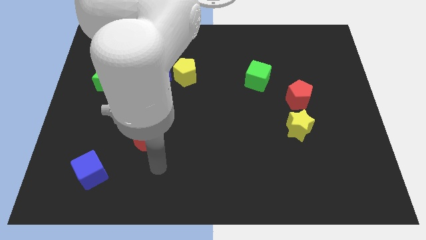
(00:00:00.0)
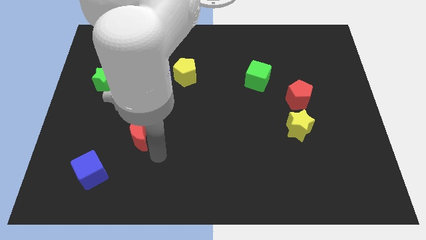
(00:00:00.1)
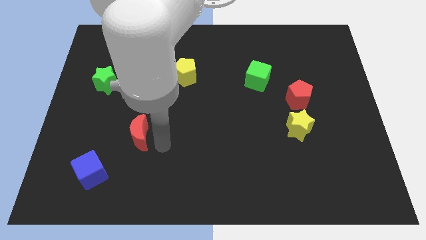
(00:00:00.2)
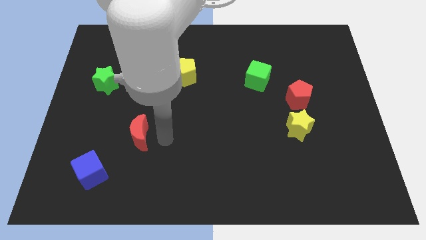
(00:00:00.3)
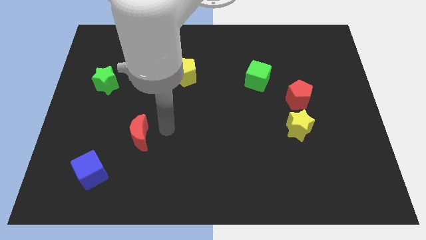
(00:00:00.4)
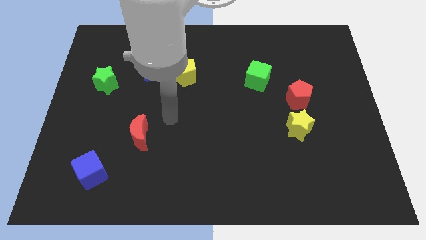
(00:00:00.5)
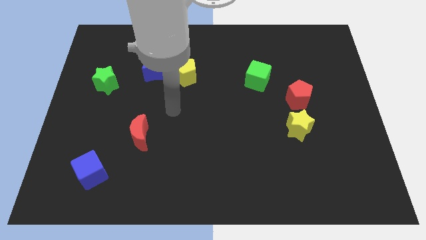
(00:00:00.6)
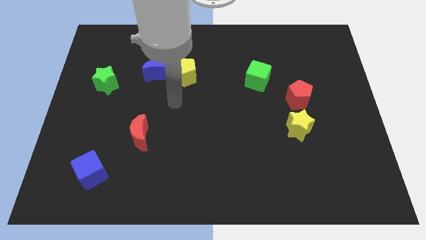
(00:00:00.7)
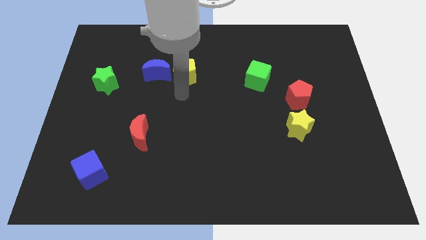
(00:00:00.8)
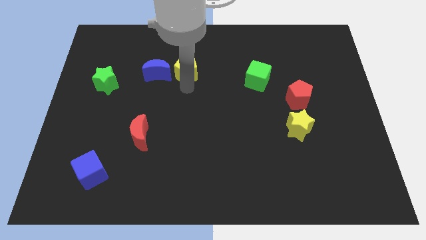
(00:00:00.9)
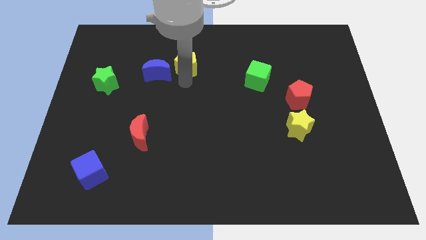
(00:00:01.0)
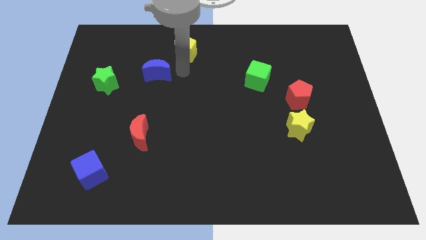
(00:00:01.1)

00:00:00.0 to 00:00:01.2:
move the blue moon away from the yellow pentagon

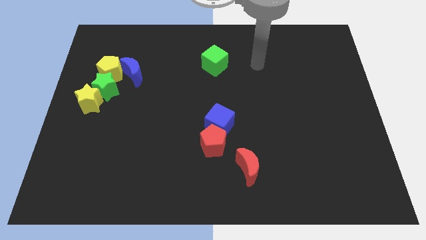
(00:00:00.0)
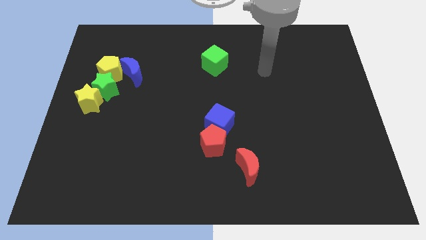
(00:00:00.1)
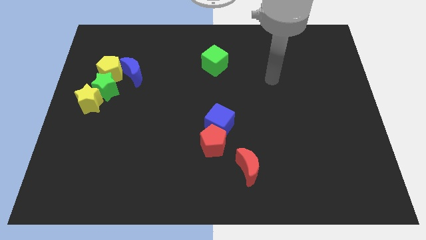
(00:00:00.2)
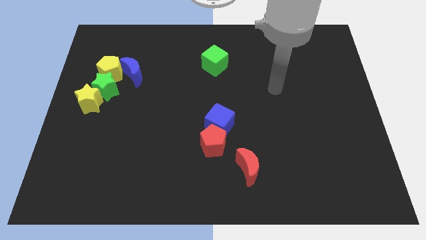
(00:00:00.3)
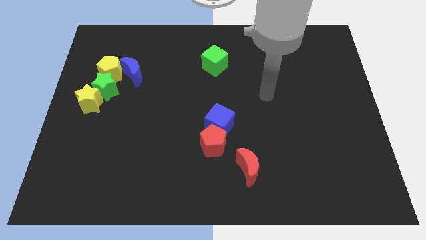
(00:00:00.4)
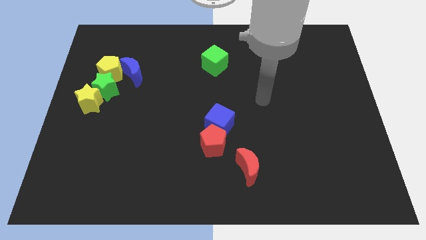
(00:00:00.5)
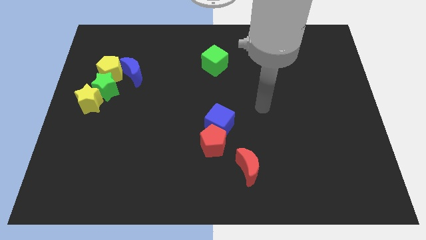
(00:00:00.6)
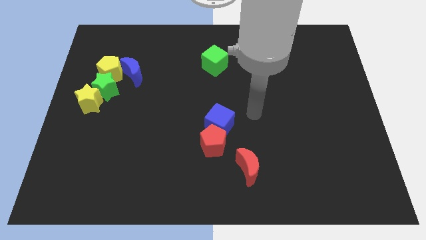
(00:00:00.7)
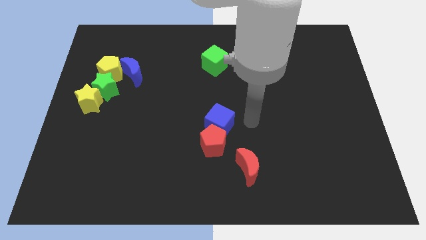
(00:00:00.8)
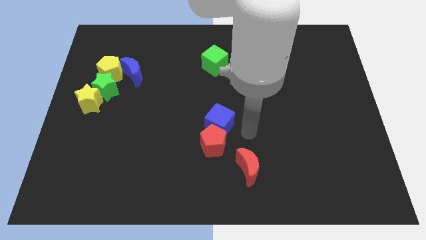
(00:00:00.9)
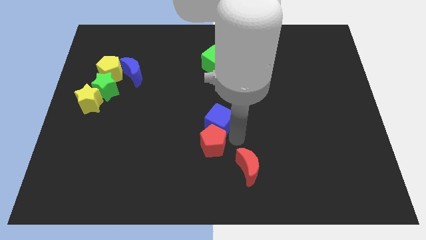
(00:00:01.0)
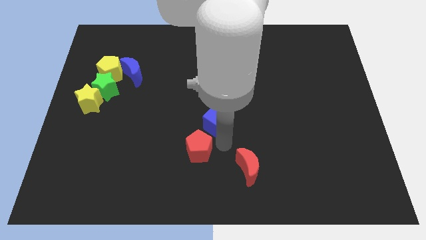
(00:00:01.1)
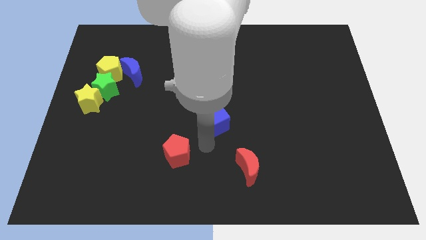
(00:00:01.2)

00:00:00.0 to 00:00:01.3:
separate the blue cube from the red pentagon

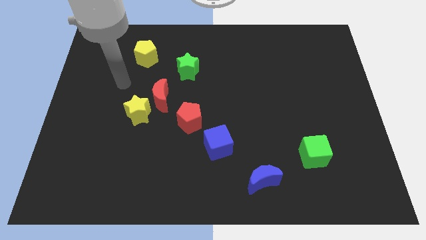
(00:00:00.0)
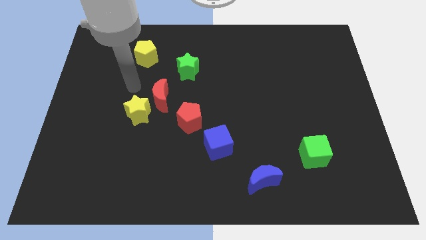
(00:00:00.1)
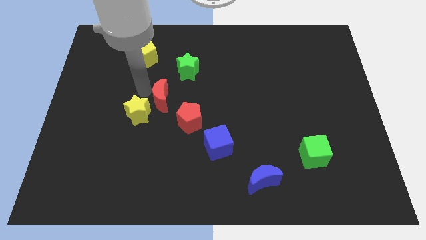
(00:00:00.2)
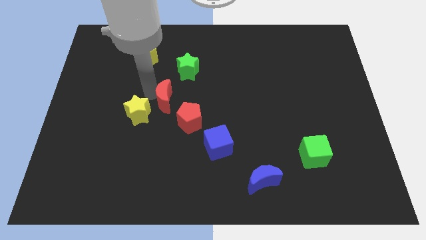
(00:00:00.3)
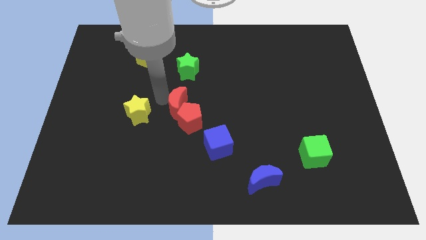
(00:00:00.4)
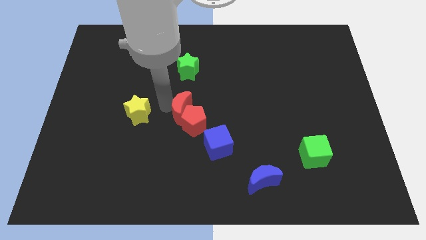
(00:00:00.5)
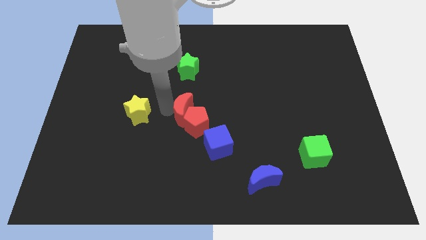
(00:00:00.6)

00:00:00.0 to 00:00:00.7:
pull the yellow star apart from the red moon

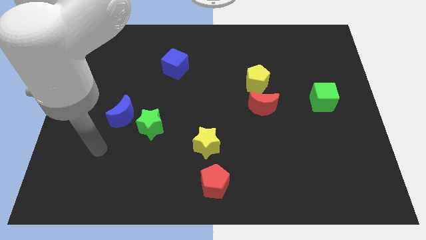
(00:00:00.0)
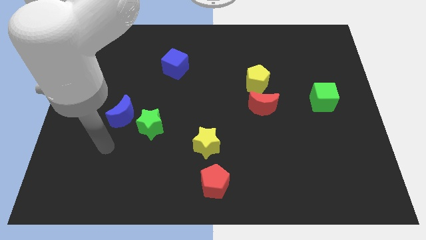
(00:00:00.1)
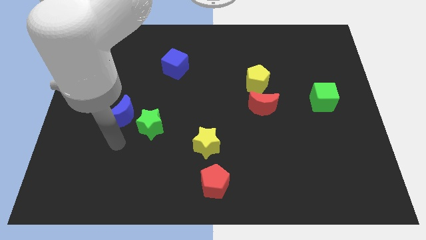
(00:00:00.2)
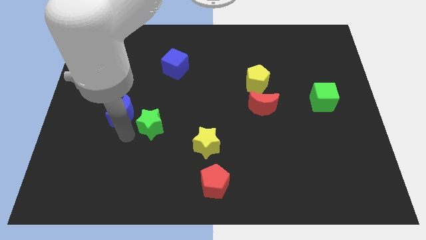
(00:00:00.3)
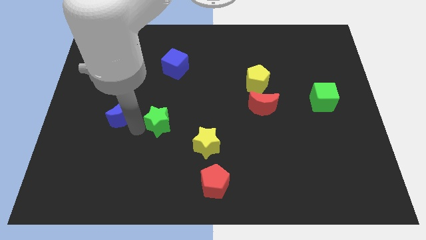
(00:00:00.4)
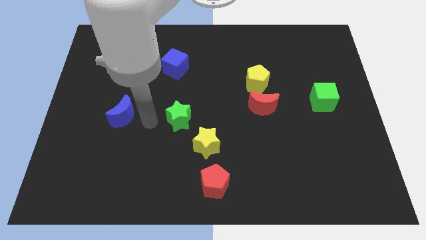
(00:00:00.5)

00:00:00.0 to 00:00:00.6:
separate the blue moon from the green star

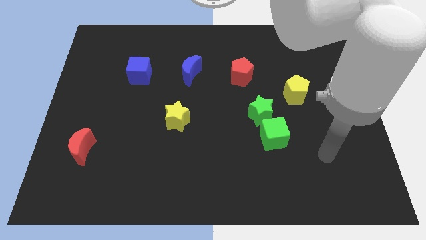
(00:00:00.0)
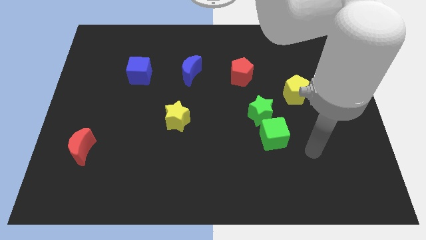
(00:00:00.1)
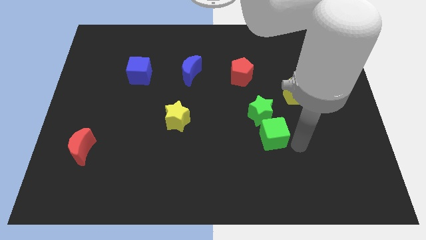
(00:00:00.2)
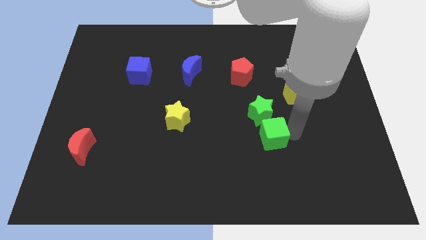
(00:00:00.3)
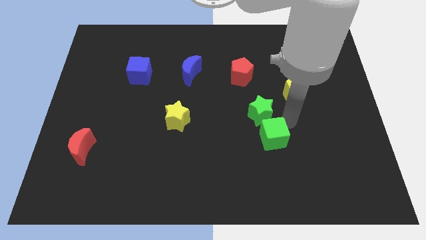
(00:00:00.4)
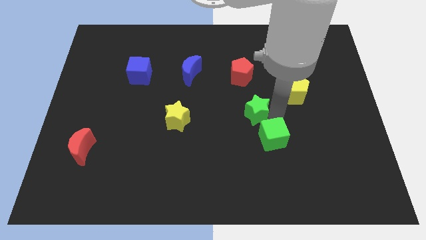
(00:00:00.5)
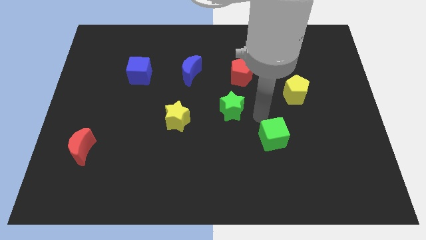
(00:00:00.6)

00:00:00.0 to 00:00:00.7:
separate the green cube from the green star

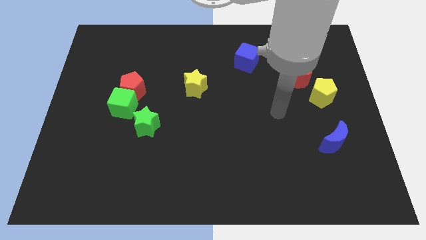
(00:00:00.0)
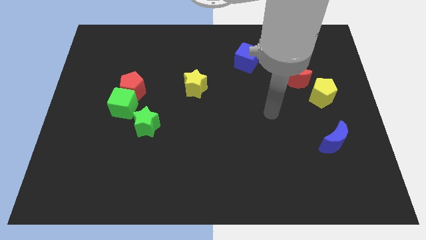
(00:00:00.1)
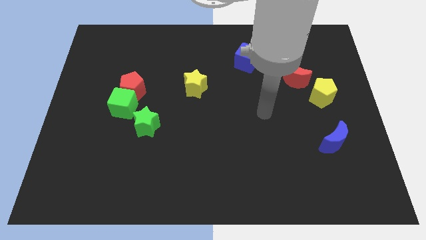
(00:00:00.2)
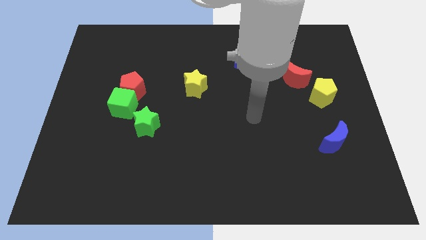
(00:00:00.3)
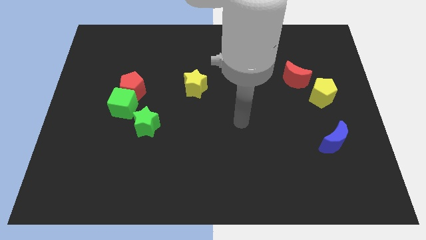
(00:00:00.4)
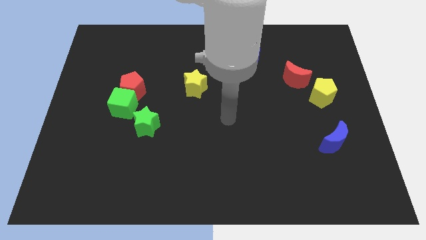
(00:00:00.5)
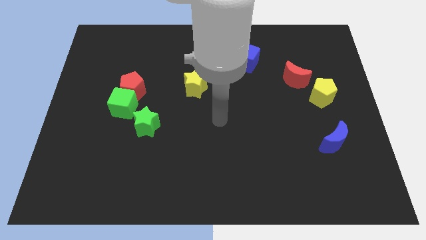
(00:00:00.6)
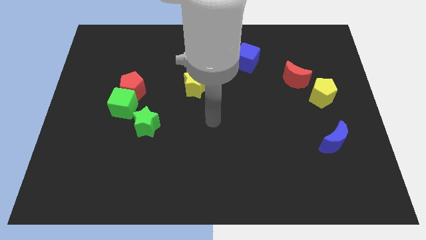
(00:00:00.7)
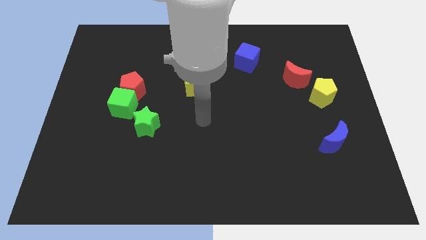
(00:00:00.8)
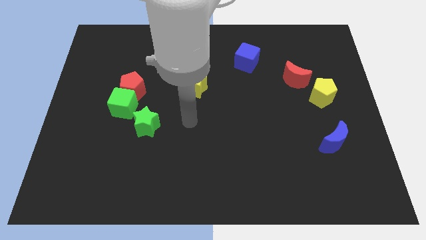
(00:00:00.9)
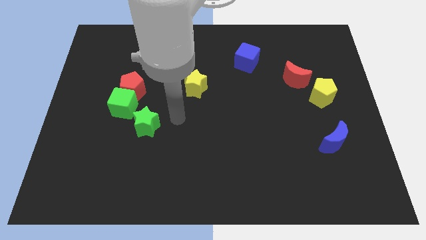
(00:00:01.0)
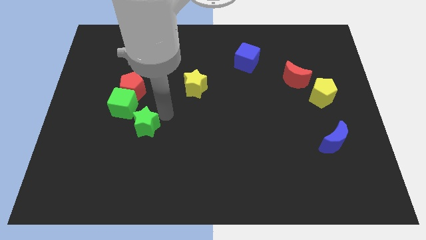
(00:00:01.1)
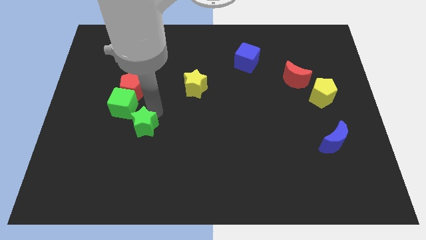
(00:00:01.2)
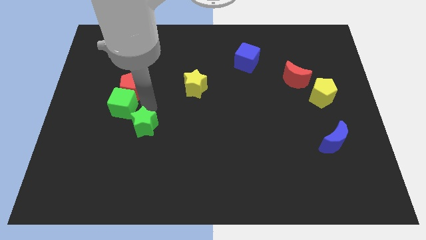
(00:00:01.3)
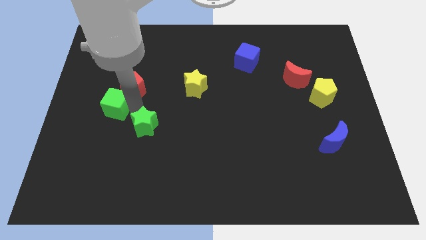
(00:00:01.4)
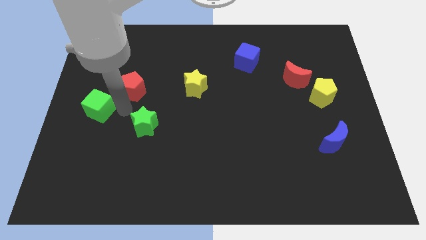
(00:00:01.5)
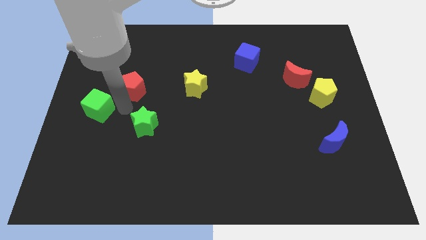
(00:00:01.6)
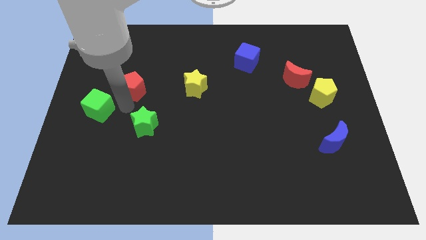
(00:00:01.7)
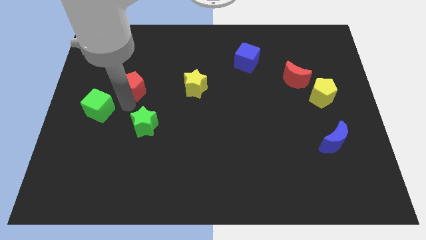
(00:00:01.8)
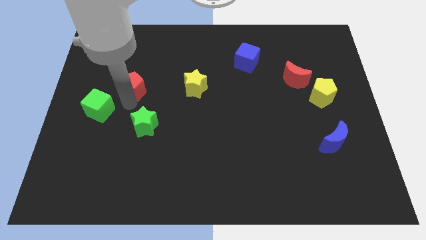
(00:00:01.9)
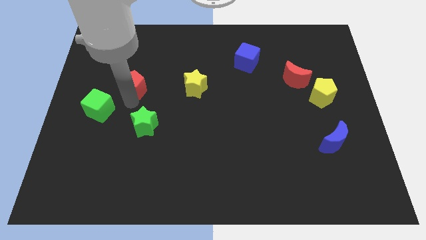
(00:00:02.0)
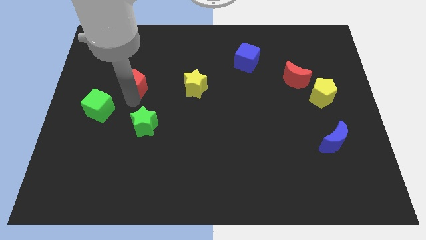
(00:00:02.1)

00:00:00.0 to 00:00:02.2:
move the red pentagon away from the green cube

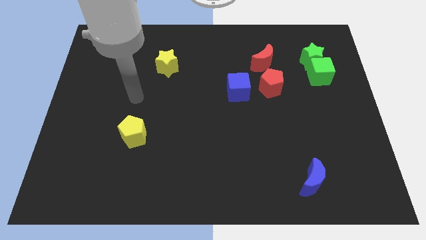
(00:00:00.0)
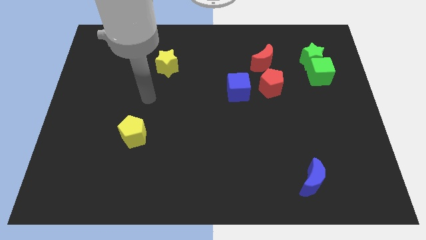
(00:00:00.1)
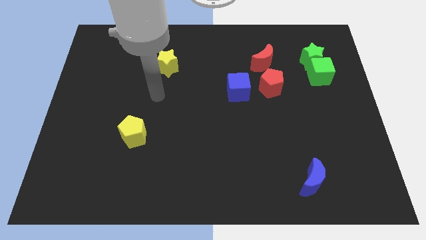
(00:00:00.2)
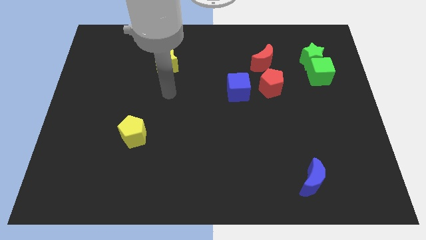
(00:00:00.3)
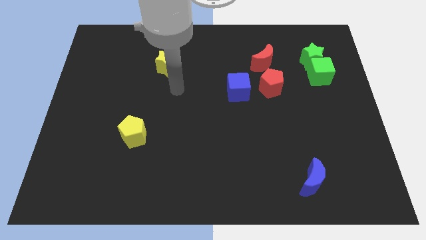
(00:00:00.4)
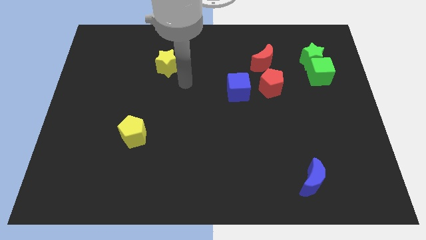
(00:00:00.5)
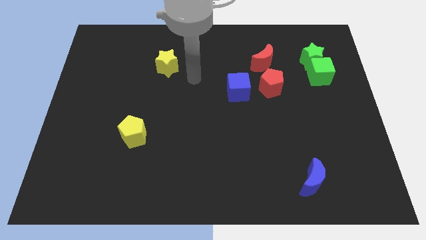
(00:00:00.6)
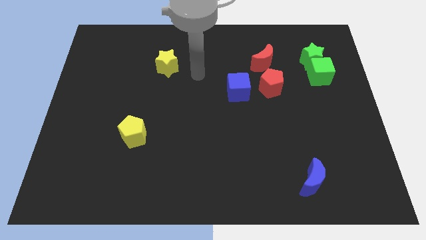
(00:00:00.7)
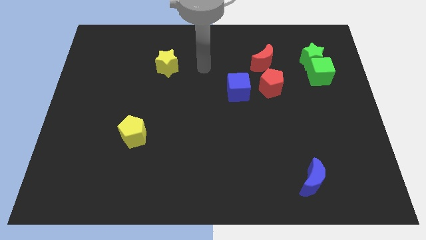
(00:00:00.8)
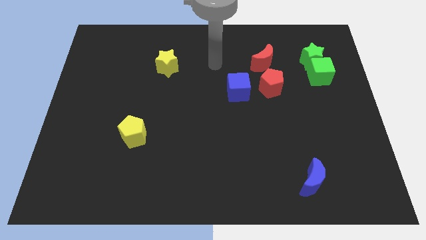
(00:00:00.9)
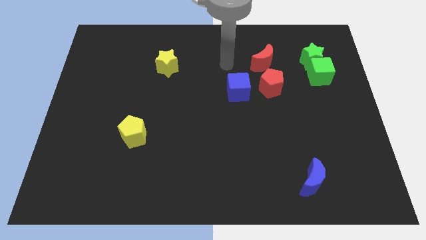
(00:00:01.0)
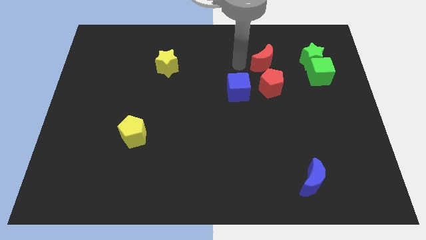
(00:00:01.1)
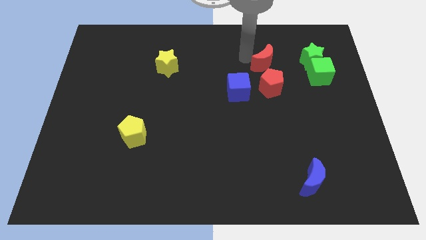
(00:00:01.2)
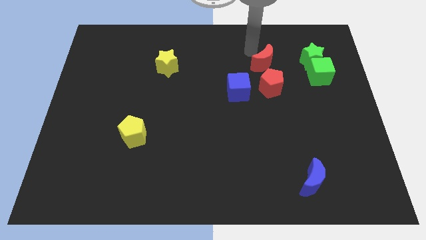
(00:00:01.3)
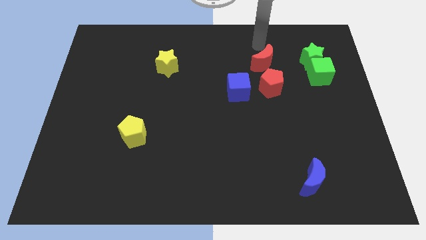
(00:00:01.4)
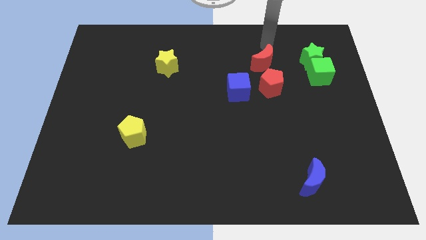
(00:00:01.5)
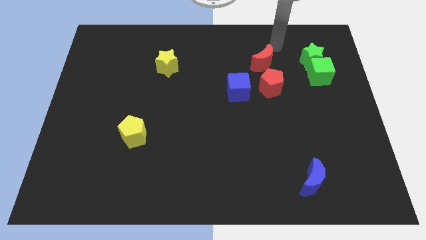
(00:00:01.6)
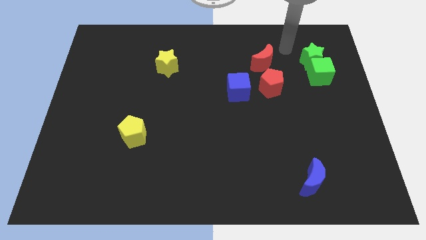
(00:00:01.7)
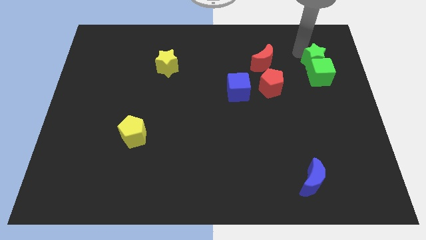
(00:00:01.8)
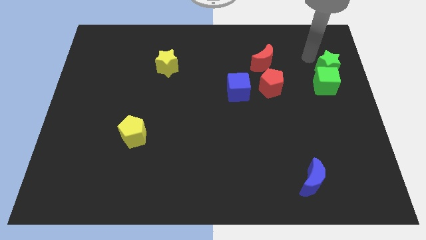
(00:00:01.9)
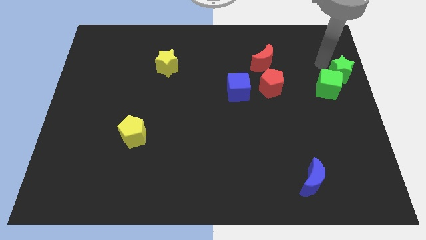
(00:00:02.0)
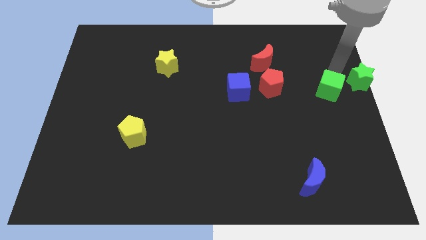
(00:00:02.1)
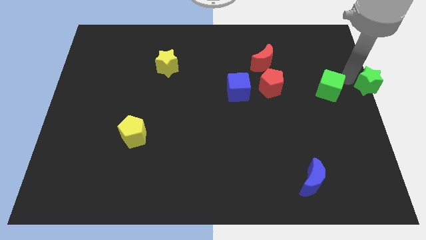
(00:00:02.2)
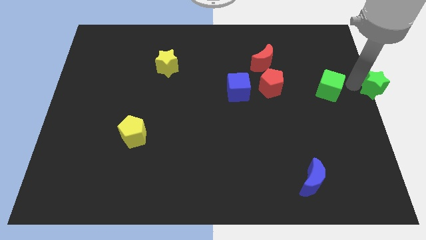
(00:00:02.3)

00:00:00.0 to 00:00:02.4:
move the green cube away from the green star

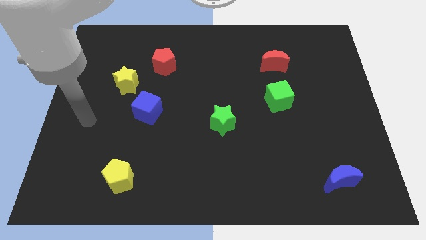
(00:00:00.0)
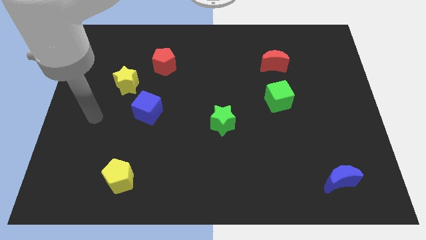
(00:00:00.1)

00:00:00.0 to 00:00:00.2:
move the blue cube away from the yellow star
